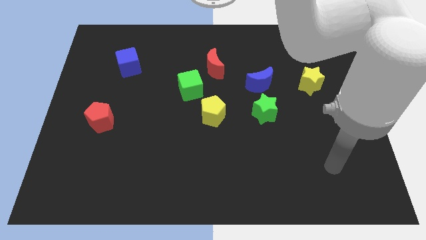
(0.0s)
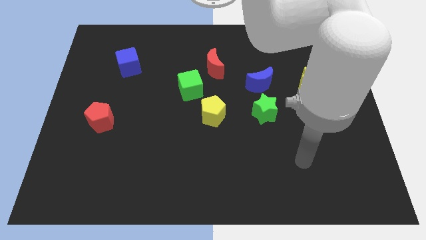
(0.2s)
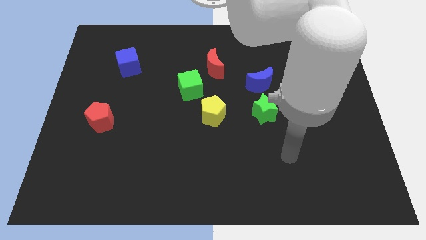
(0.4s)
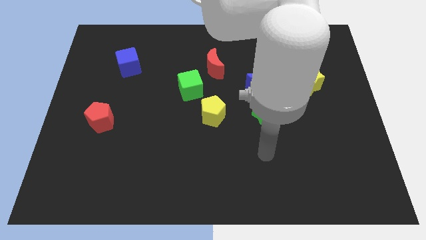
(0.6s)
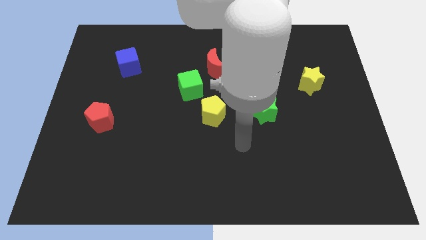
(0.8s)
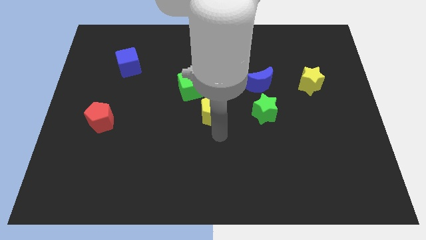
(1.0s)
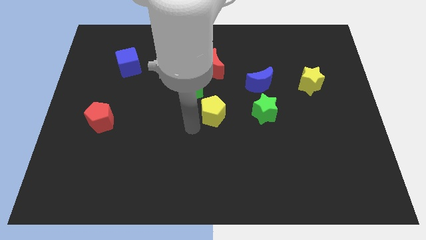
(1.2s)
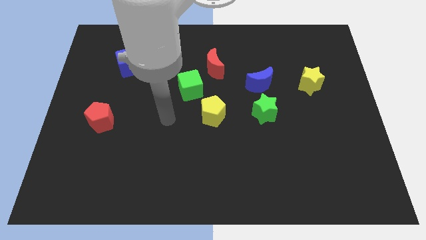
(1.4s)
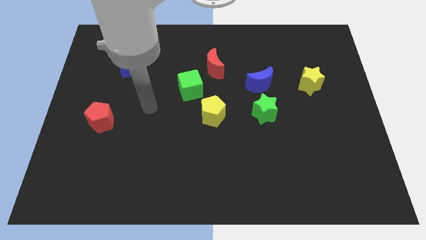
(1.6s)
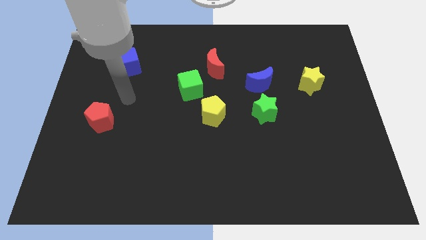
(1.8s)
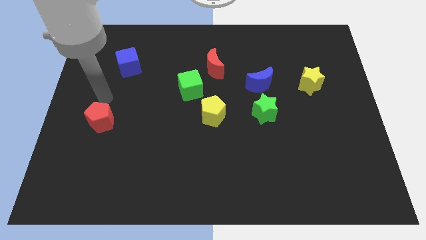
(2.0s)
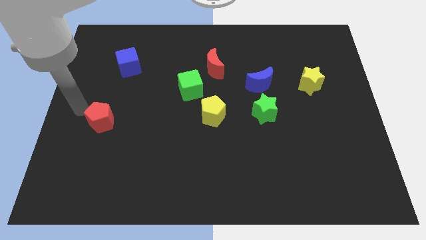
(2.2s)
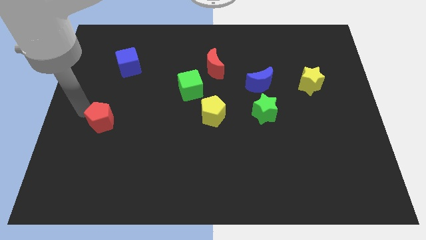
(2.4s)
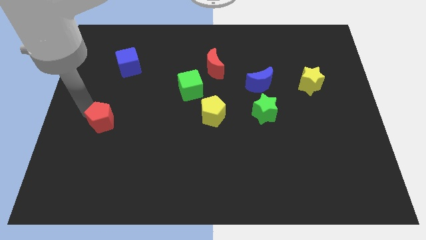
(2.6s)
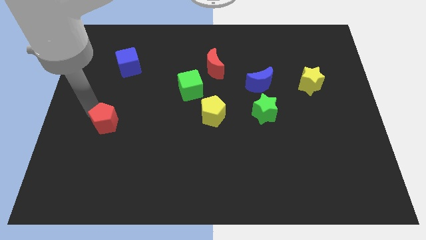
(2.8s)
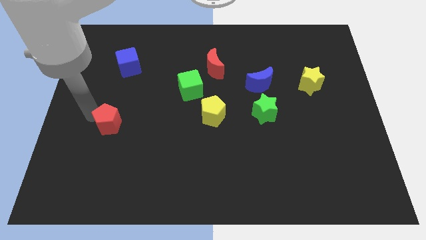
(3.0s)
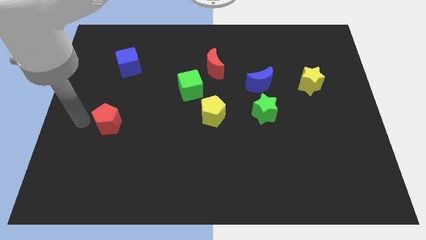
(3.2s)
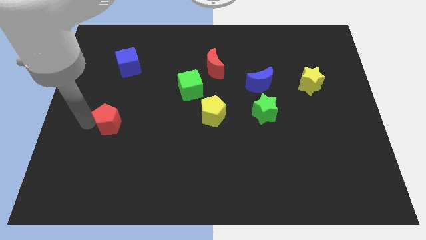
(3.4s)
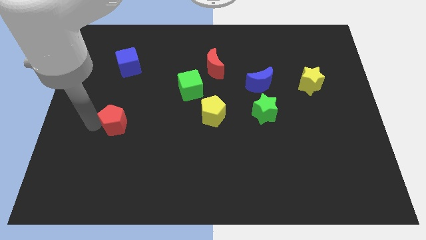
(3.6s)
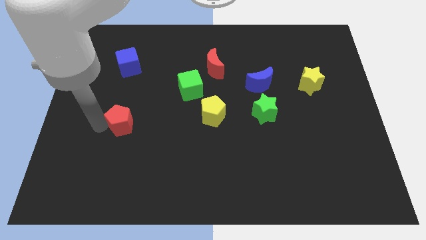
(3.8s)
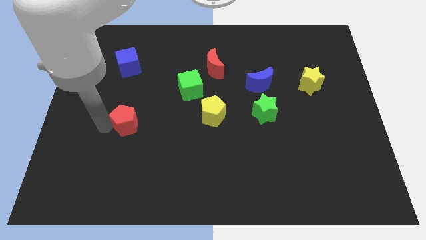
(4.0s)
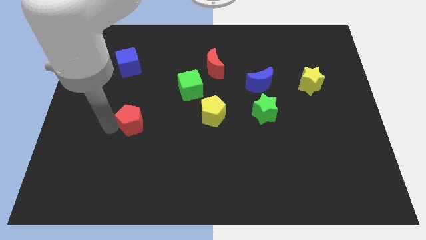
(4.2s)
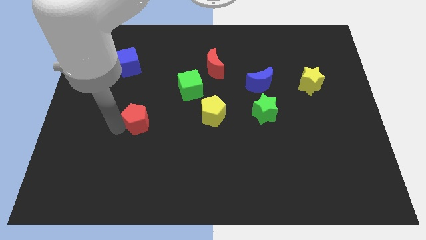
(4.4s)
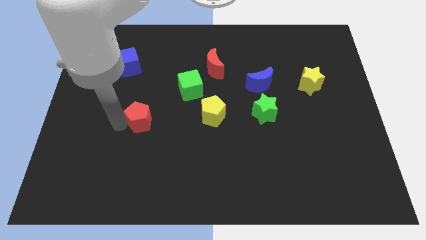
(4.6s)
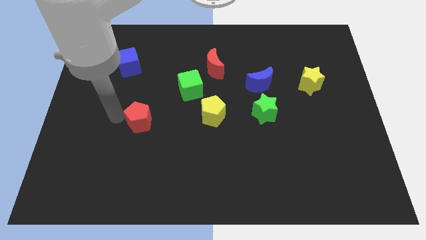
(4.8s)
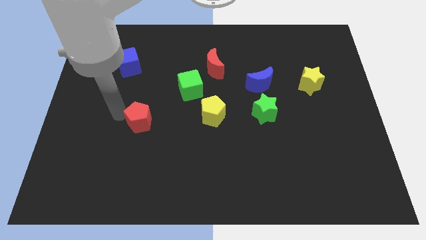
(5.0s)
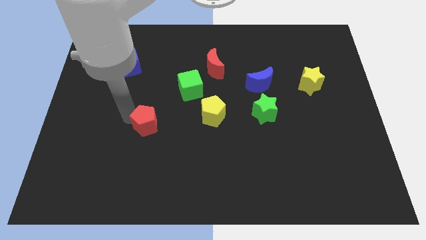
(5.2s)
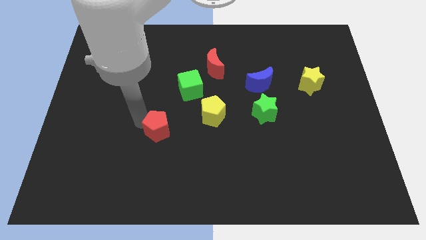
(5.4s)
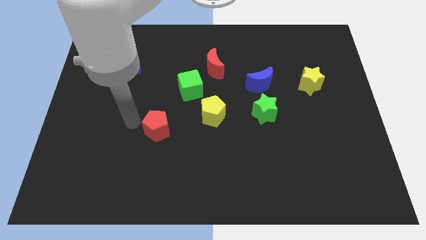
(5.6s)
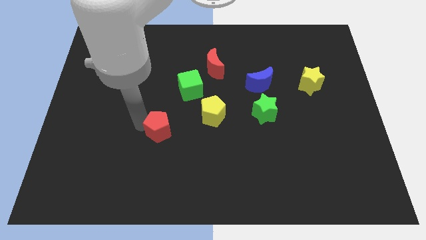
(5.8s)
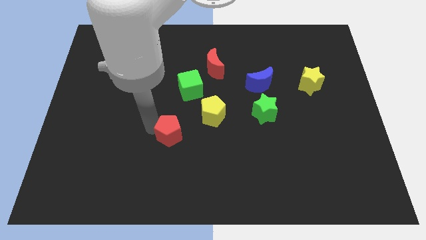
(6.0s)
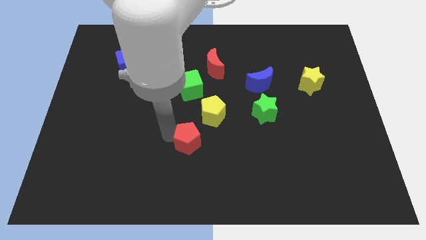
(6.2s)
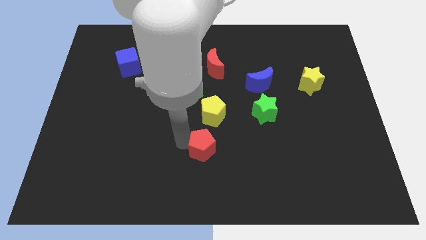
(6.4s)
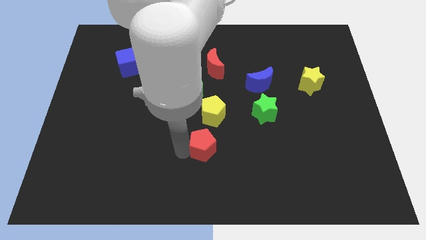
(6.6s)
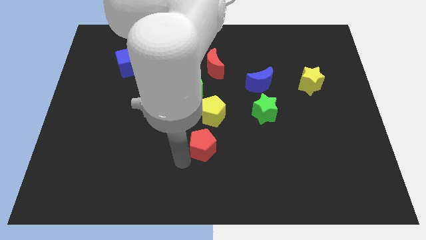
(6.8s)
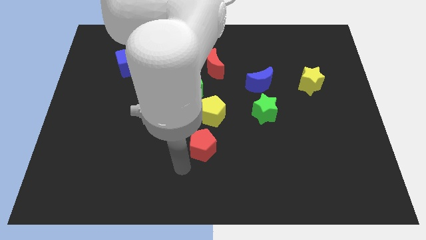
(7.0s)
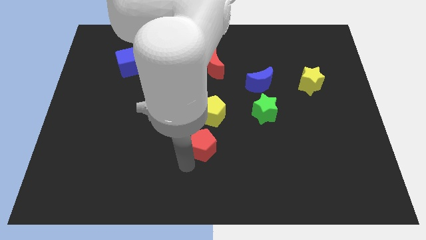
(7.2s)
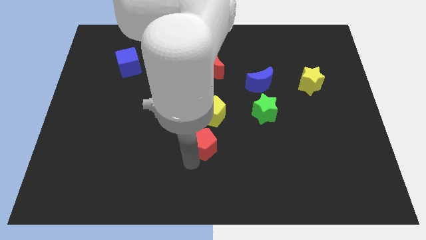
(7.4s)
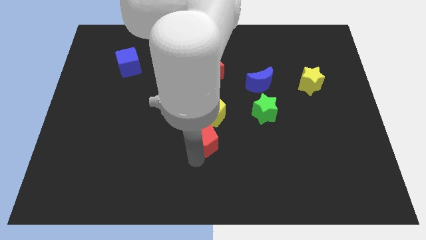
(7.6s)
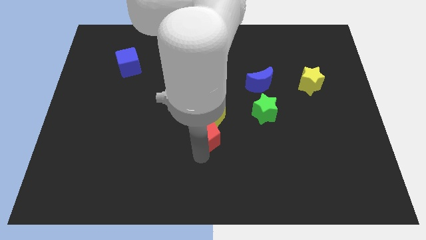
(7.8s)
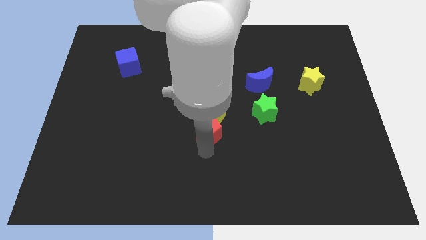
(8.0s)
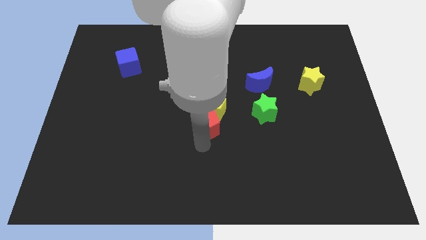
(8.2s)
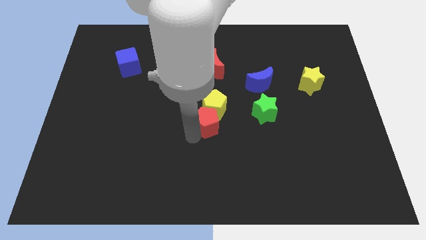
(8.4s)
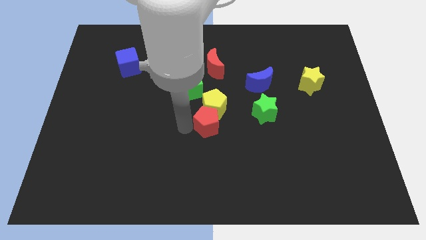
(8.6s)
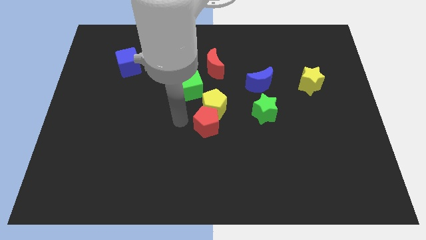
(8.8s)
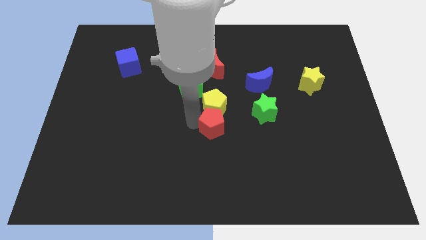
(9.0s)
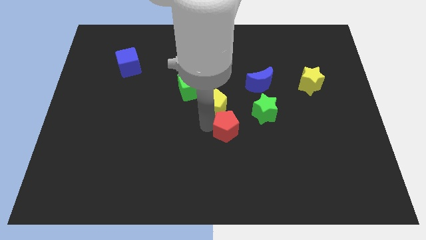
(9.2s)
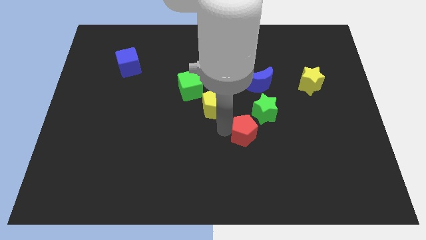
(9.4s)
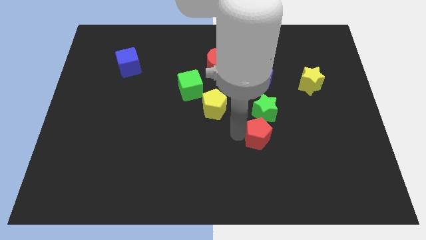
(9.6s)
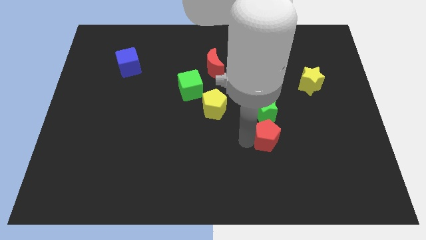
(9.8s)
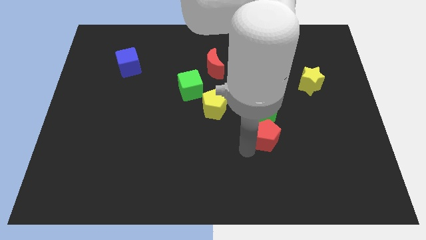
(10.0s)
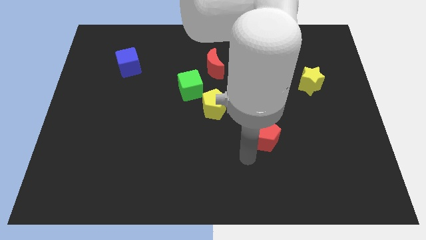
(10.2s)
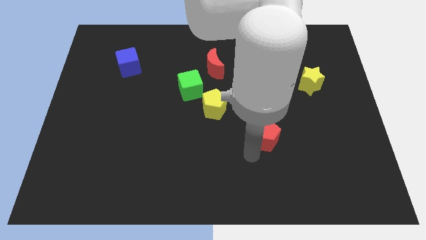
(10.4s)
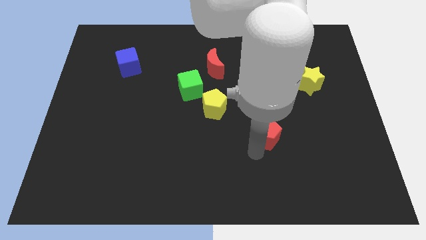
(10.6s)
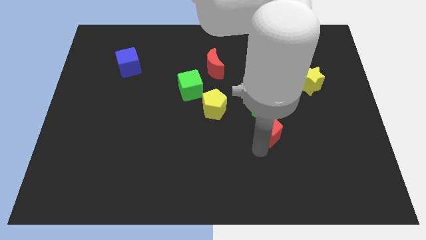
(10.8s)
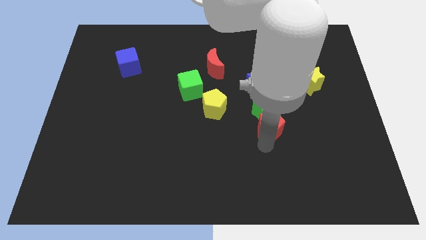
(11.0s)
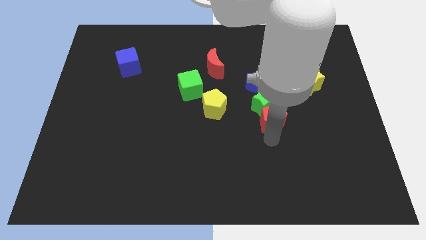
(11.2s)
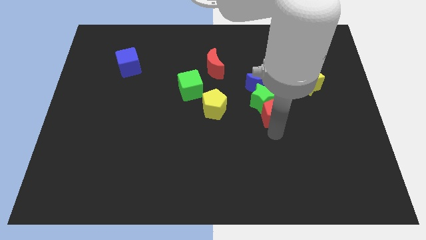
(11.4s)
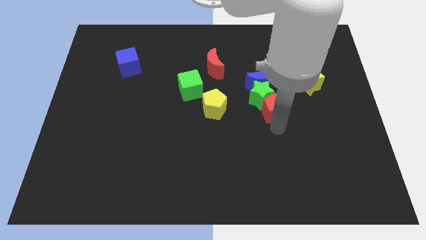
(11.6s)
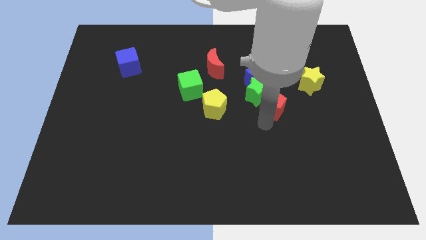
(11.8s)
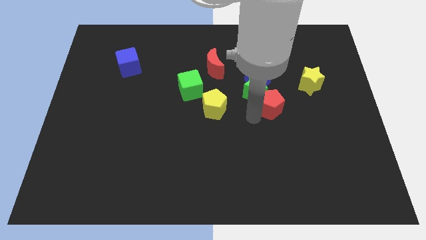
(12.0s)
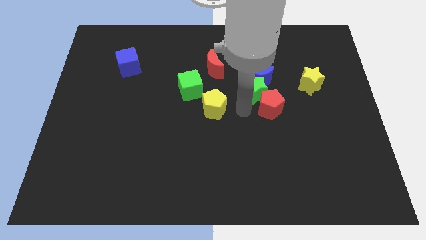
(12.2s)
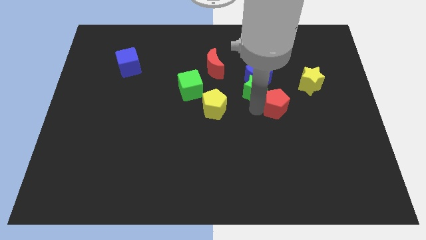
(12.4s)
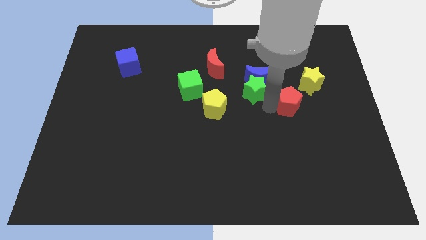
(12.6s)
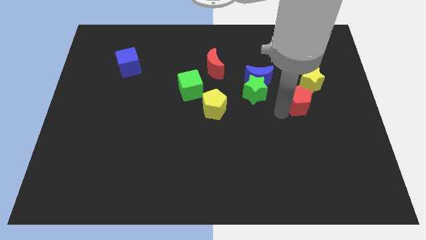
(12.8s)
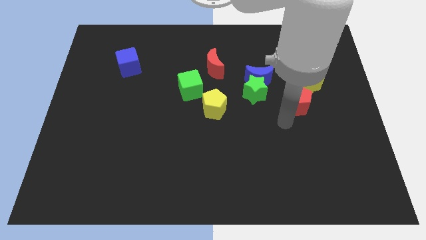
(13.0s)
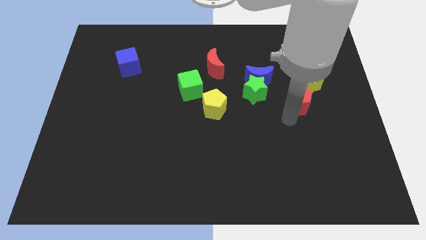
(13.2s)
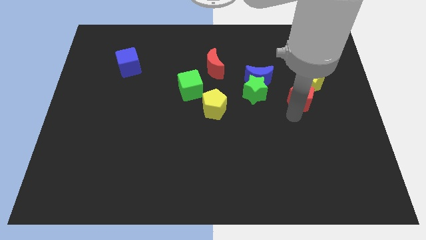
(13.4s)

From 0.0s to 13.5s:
push the red pentagon to the yellow star

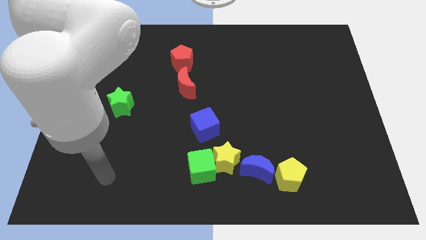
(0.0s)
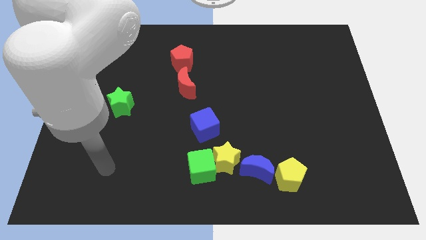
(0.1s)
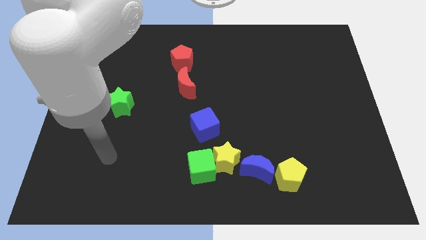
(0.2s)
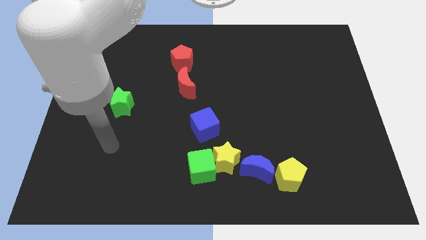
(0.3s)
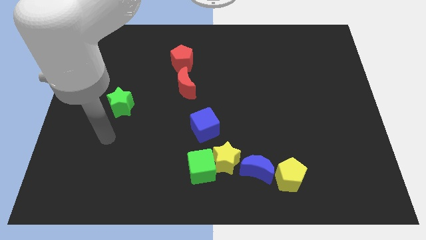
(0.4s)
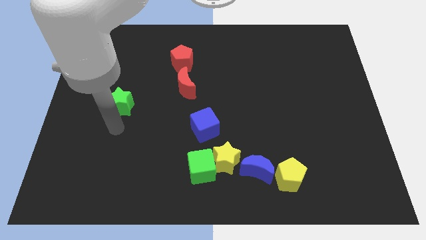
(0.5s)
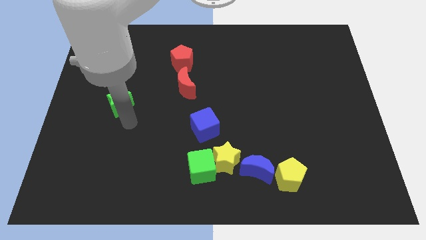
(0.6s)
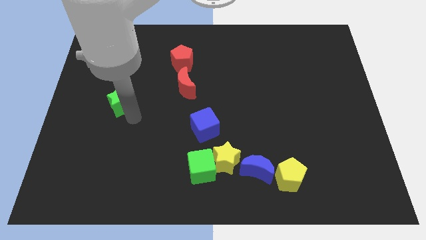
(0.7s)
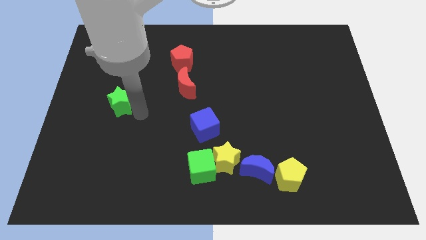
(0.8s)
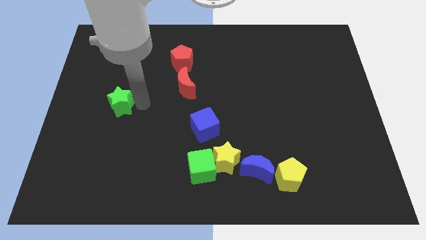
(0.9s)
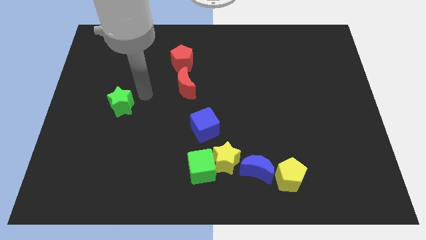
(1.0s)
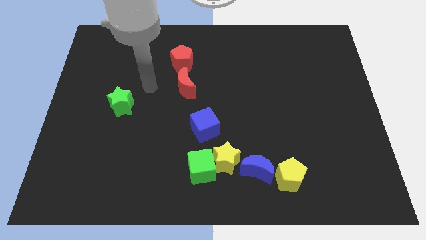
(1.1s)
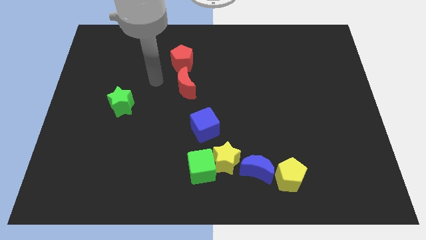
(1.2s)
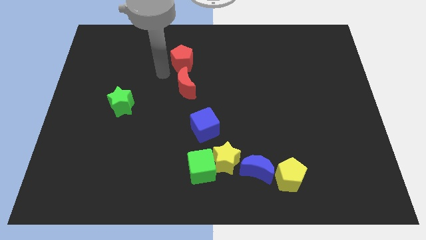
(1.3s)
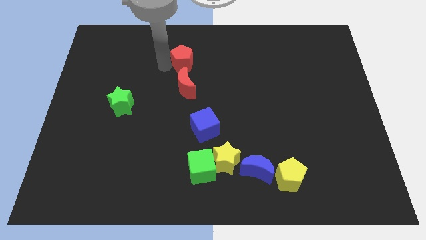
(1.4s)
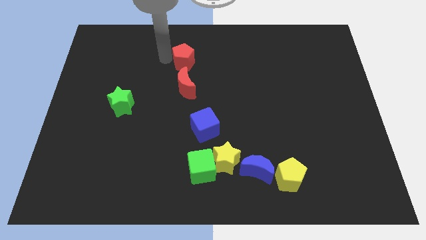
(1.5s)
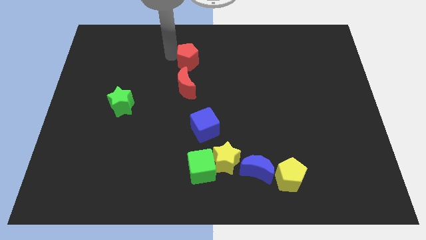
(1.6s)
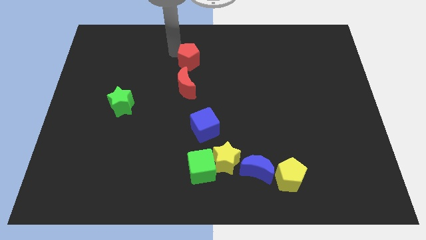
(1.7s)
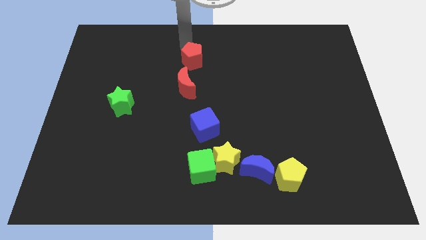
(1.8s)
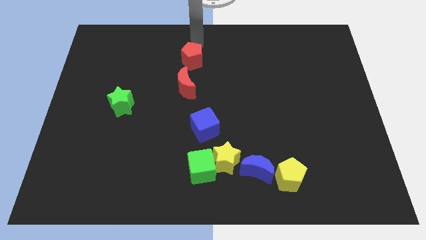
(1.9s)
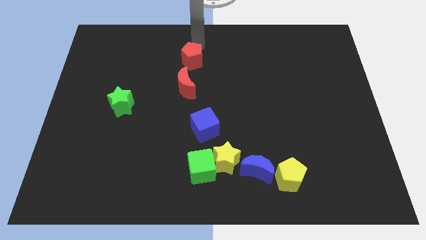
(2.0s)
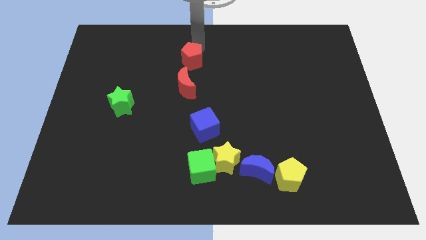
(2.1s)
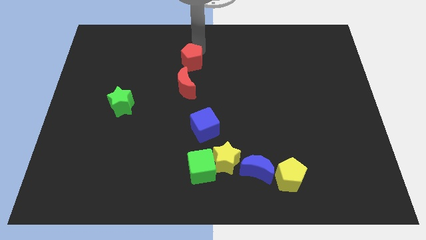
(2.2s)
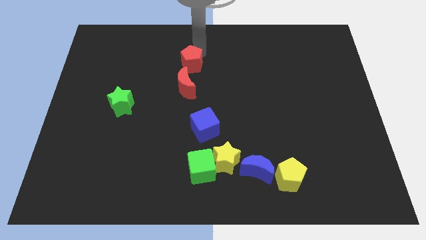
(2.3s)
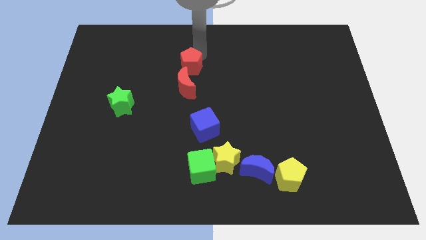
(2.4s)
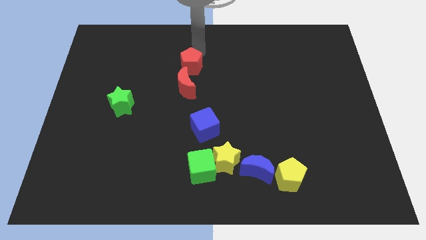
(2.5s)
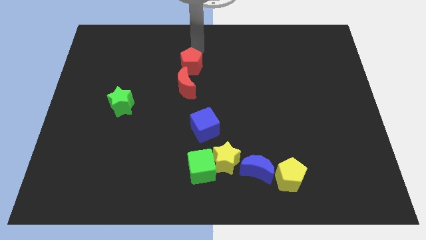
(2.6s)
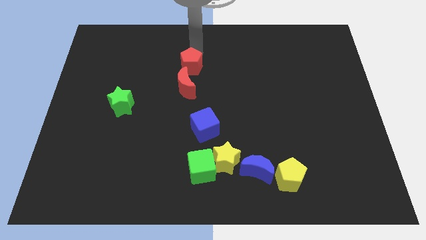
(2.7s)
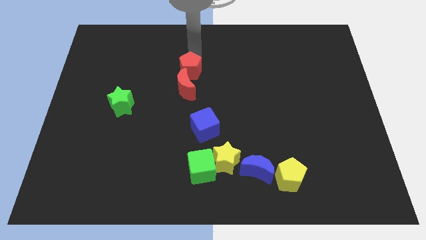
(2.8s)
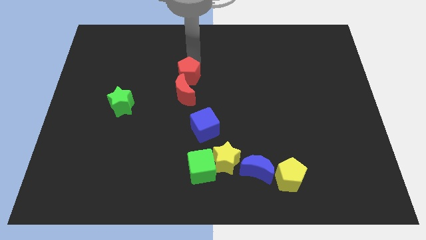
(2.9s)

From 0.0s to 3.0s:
put the red pentagon close to the red moon
